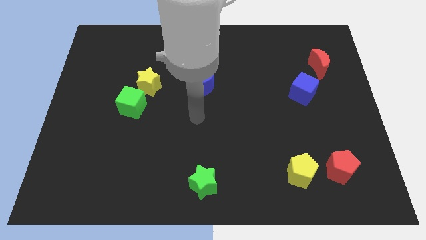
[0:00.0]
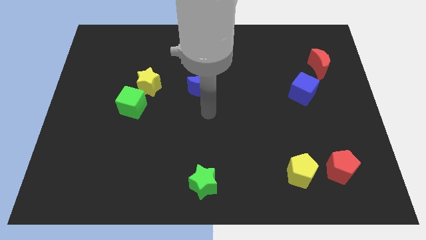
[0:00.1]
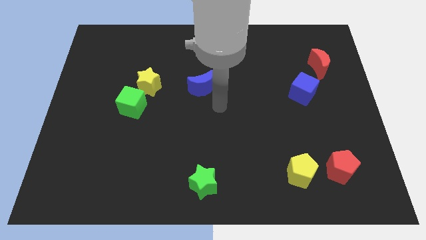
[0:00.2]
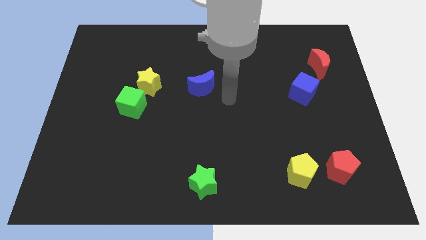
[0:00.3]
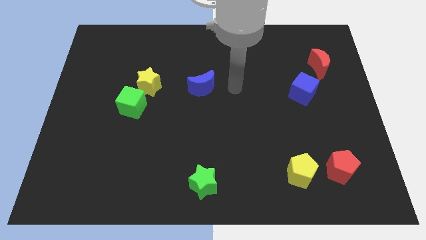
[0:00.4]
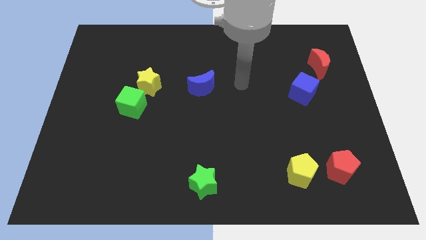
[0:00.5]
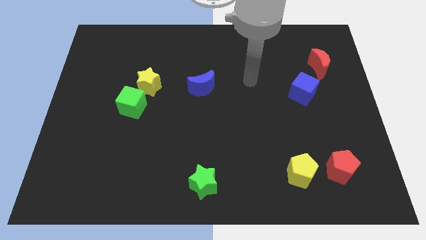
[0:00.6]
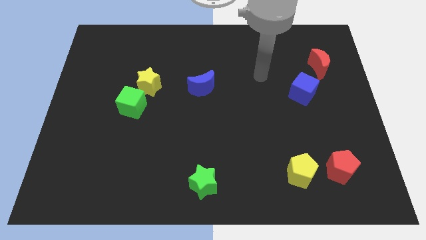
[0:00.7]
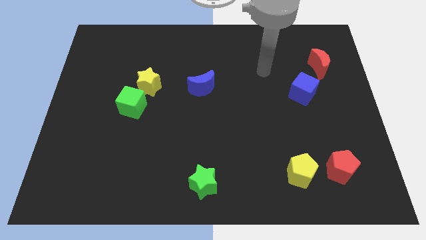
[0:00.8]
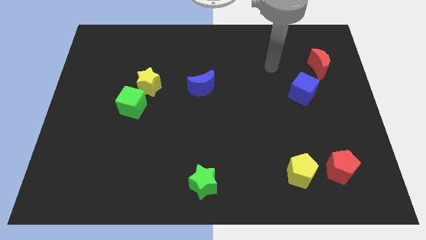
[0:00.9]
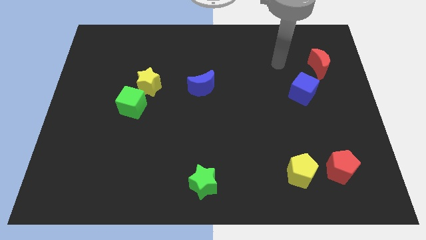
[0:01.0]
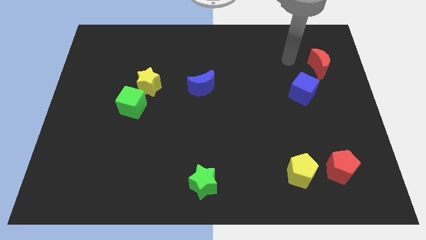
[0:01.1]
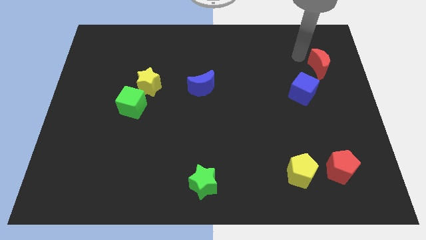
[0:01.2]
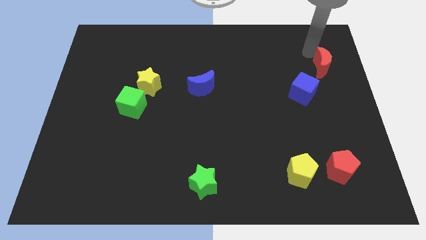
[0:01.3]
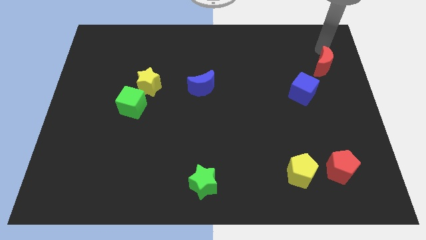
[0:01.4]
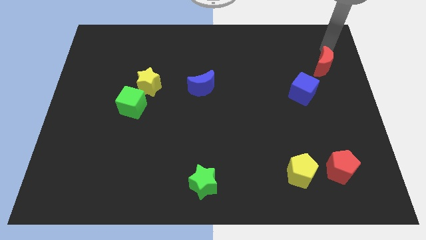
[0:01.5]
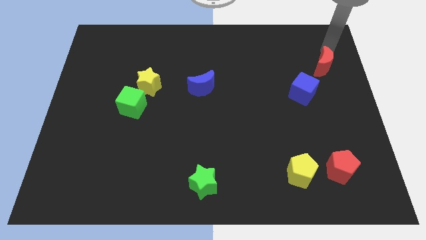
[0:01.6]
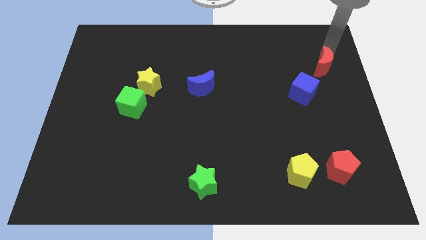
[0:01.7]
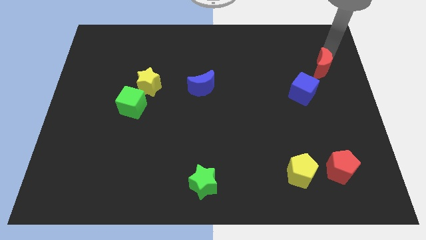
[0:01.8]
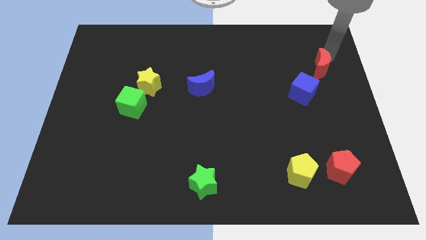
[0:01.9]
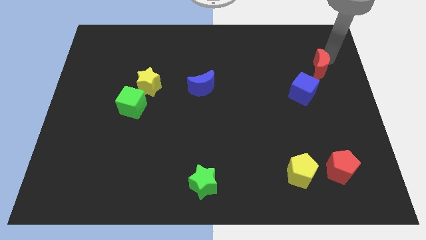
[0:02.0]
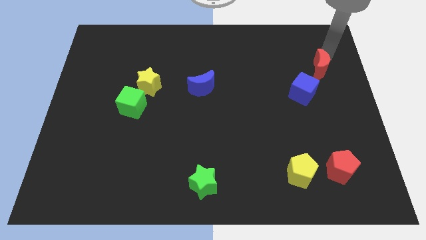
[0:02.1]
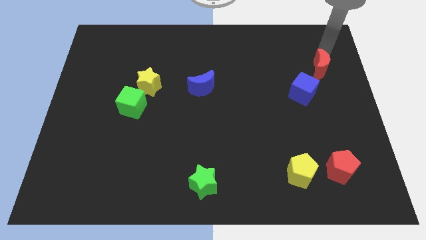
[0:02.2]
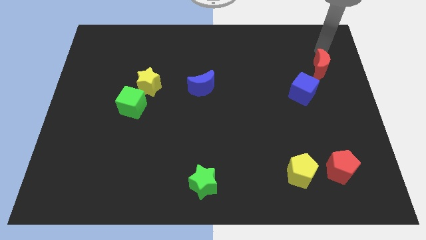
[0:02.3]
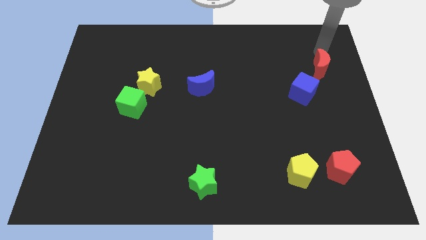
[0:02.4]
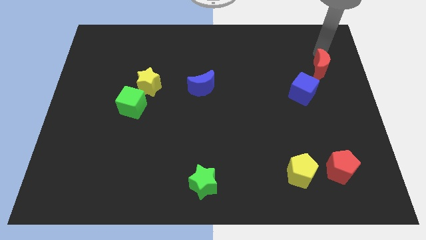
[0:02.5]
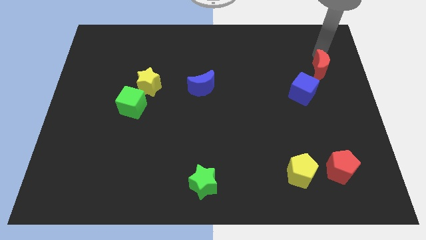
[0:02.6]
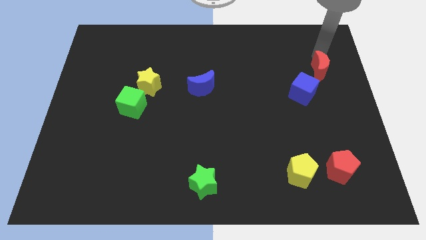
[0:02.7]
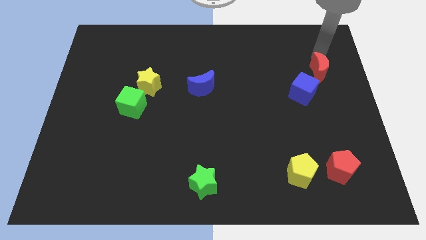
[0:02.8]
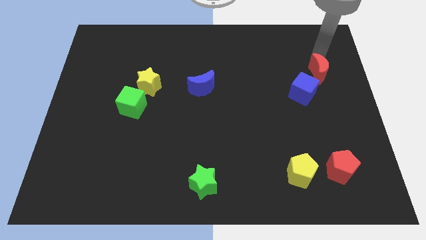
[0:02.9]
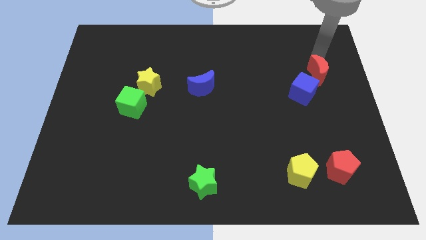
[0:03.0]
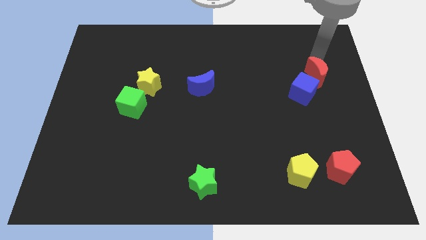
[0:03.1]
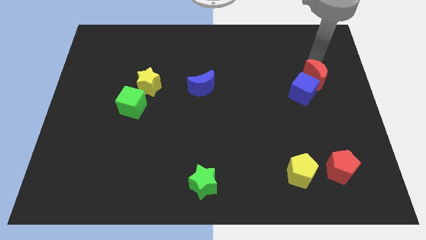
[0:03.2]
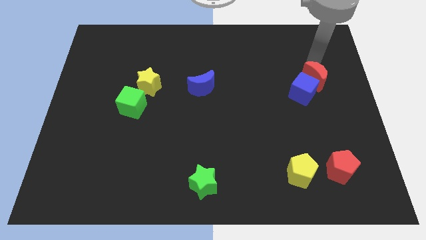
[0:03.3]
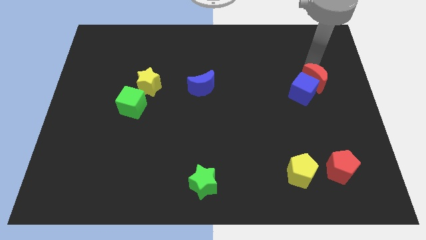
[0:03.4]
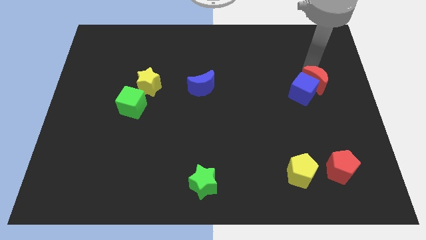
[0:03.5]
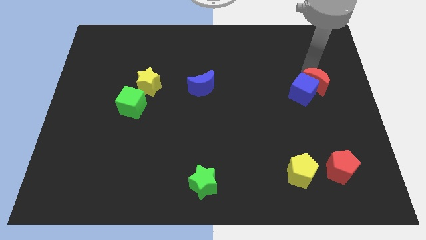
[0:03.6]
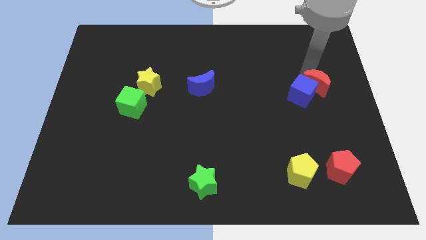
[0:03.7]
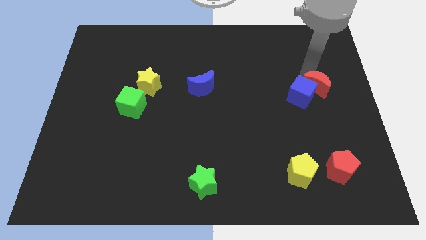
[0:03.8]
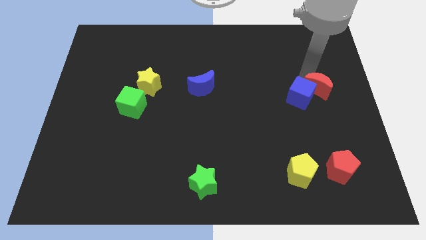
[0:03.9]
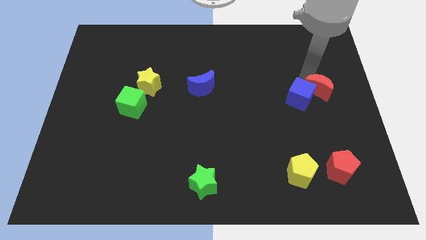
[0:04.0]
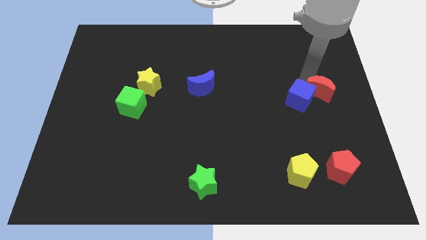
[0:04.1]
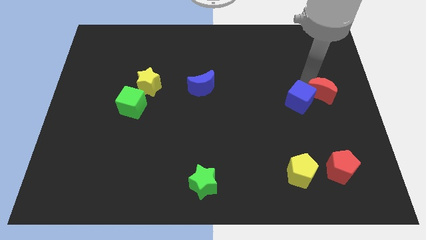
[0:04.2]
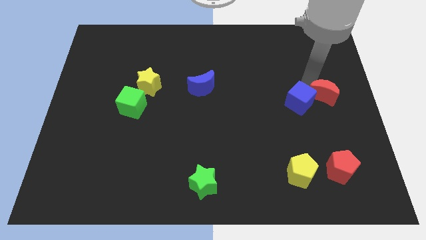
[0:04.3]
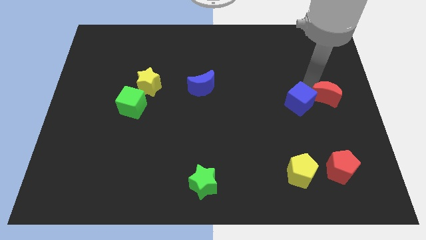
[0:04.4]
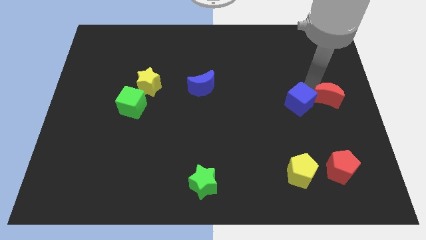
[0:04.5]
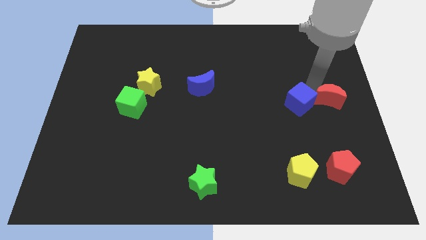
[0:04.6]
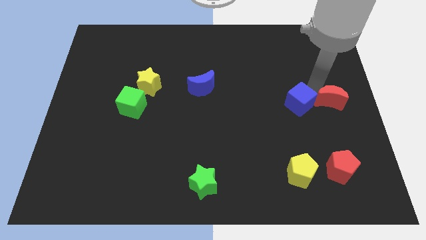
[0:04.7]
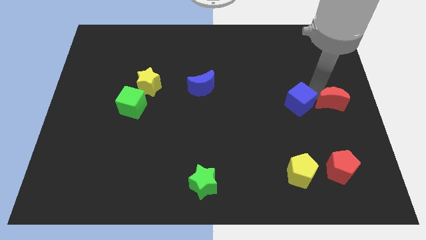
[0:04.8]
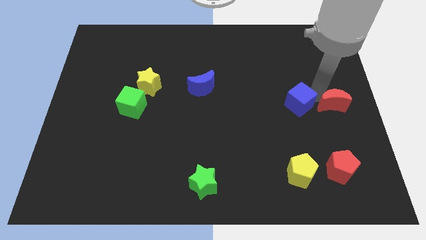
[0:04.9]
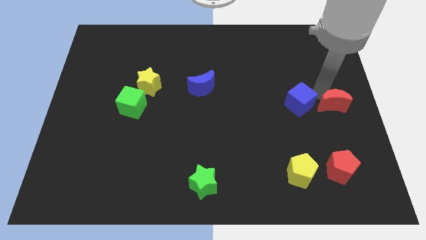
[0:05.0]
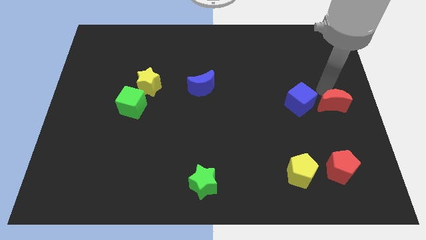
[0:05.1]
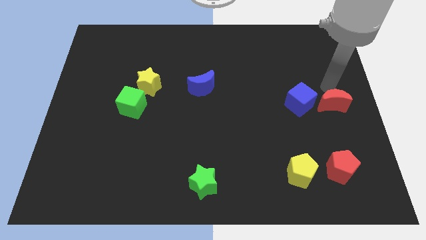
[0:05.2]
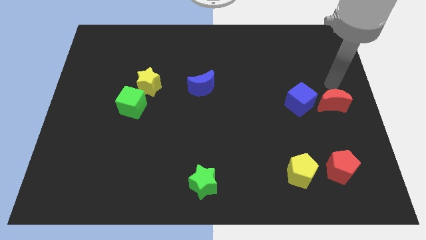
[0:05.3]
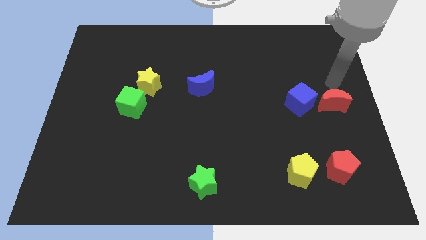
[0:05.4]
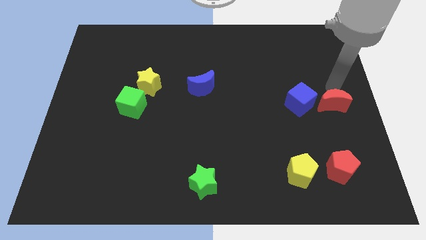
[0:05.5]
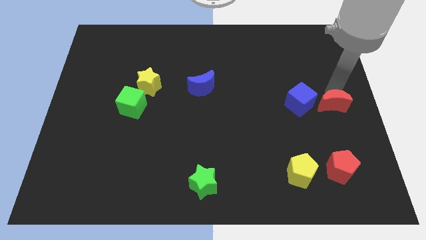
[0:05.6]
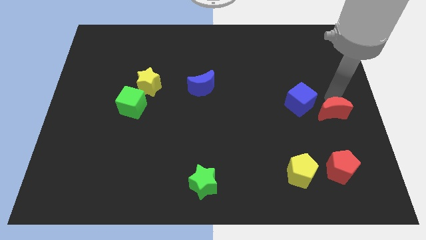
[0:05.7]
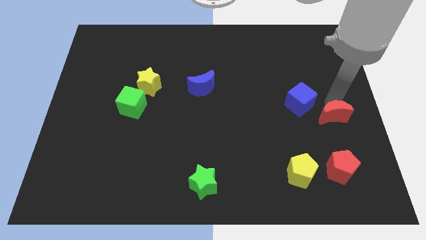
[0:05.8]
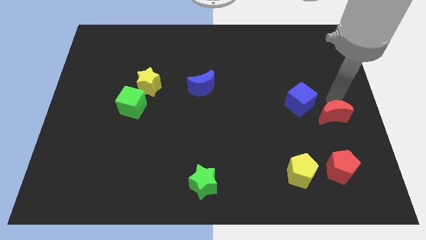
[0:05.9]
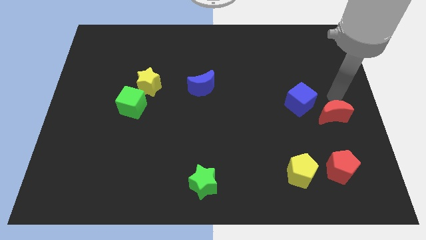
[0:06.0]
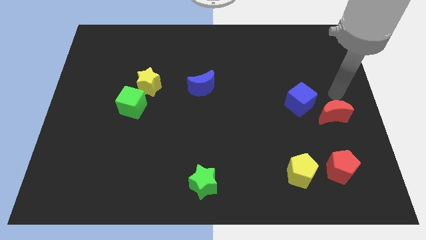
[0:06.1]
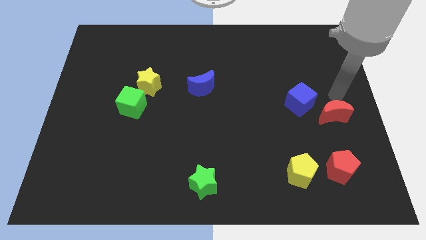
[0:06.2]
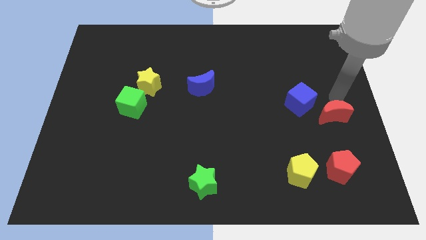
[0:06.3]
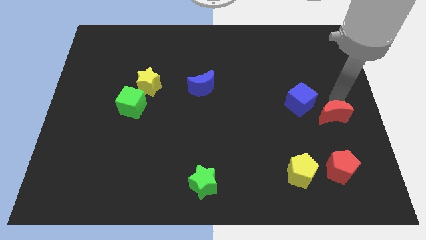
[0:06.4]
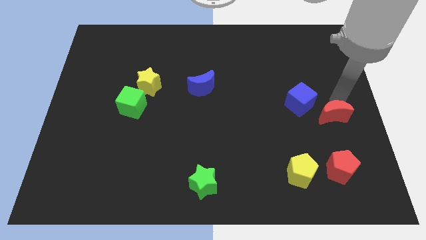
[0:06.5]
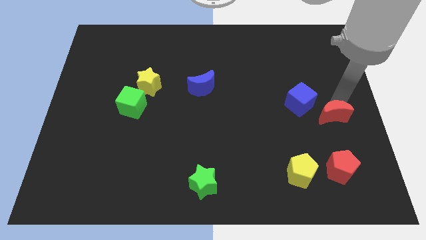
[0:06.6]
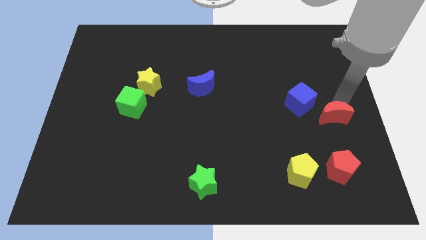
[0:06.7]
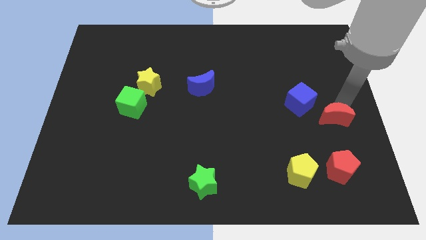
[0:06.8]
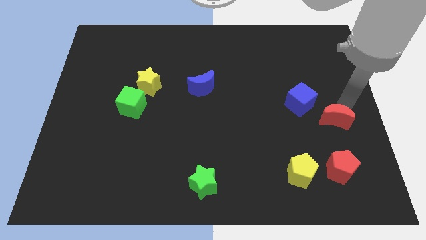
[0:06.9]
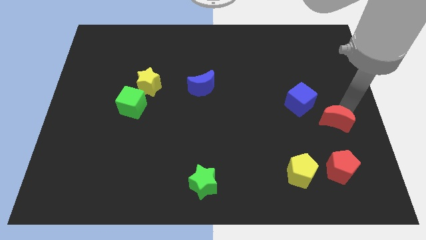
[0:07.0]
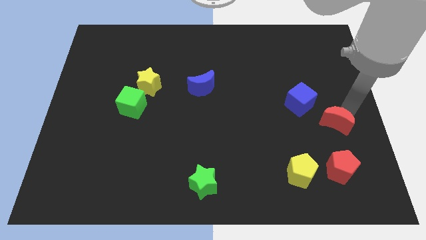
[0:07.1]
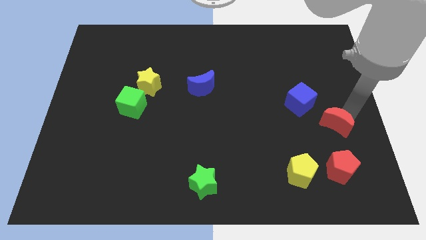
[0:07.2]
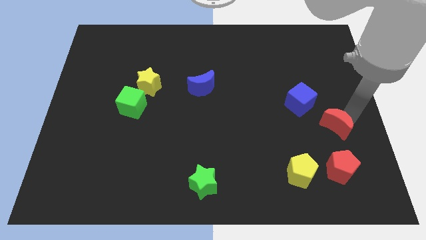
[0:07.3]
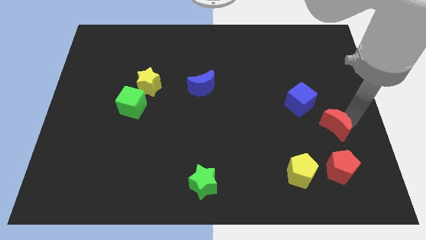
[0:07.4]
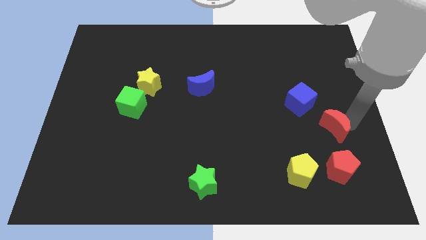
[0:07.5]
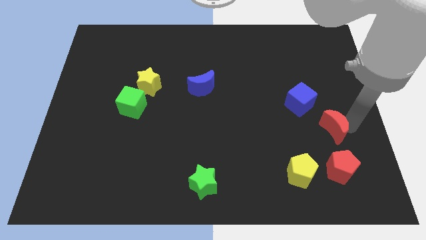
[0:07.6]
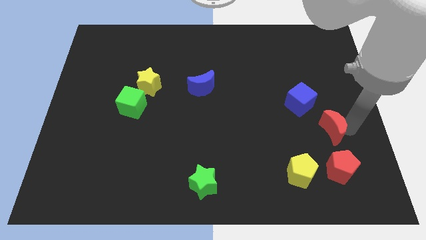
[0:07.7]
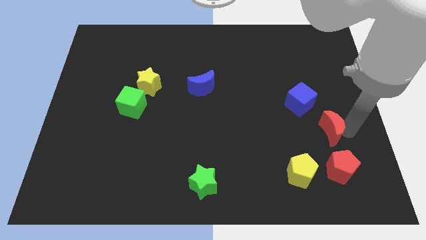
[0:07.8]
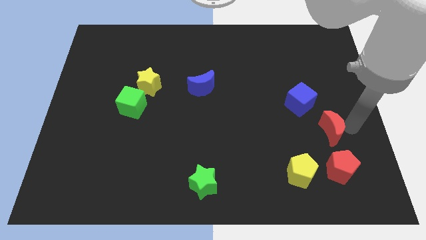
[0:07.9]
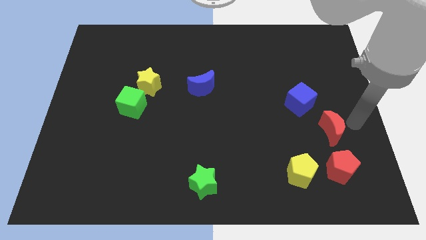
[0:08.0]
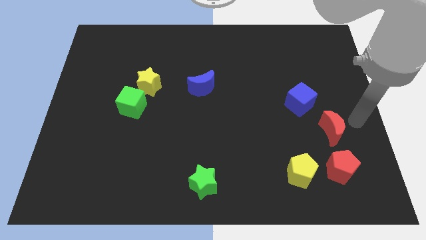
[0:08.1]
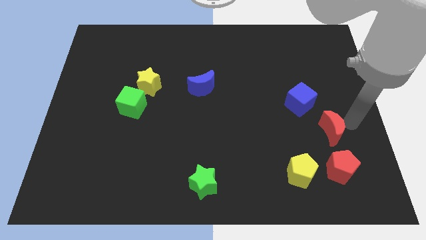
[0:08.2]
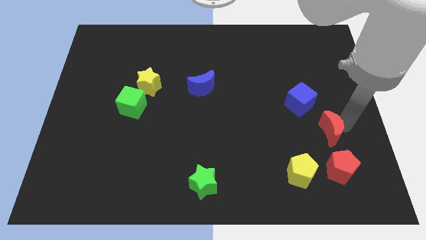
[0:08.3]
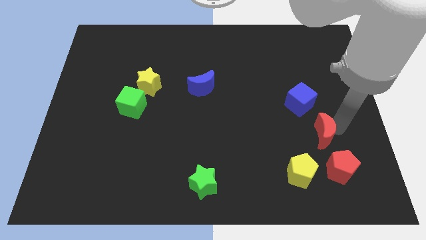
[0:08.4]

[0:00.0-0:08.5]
move the red moon below the blue cube
